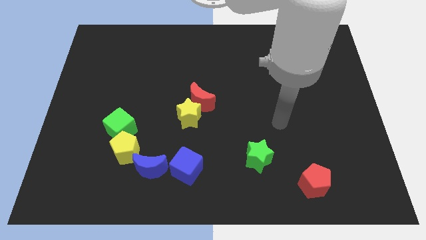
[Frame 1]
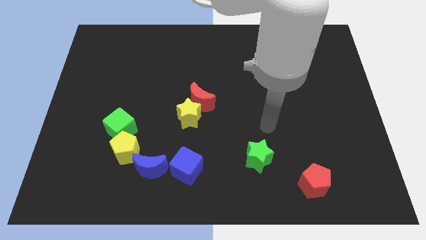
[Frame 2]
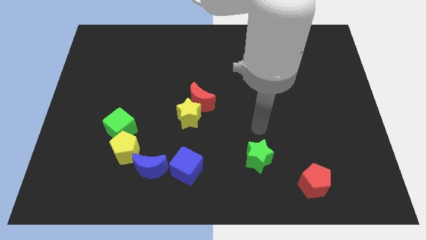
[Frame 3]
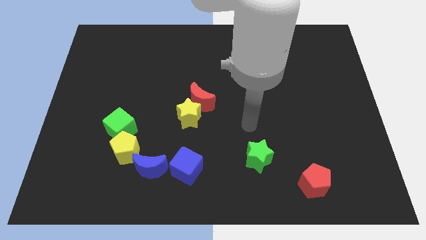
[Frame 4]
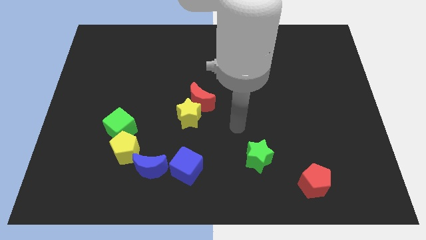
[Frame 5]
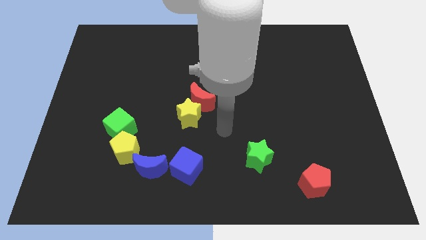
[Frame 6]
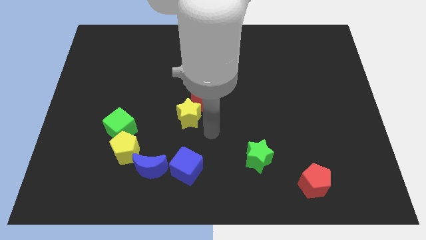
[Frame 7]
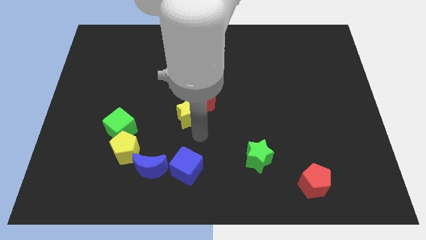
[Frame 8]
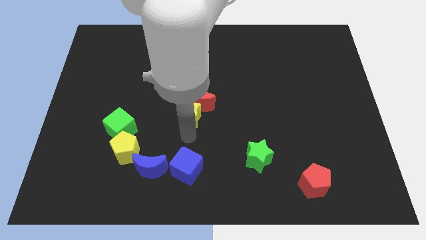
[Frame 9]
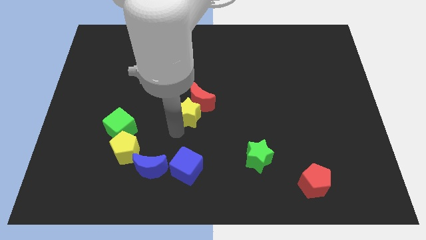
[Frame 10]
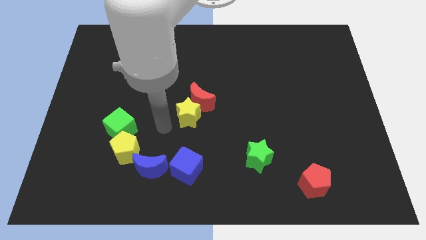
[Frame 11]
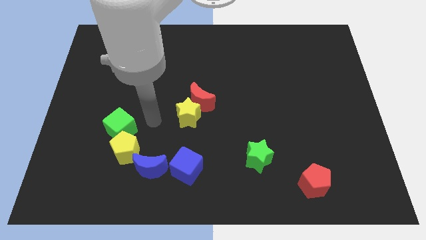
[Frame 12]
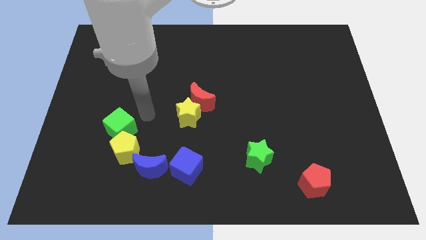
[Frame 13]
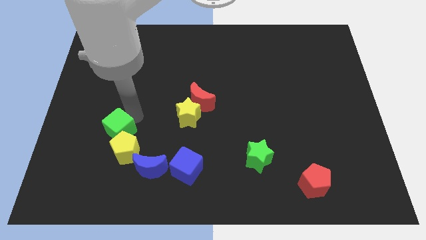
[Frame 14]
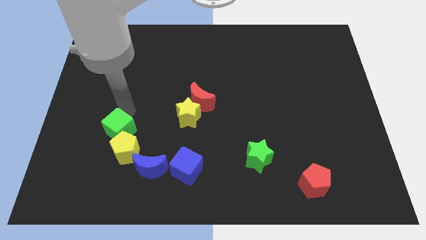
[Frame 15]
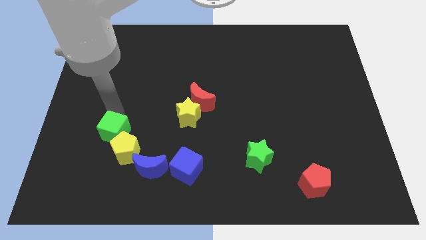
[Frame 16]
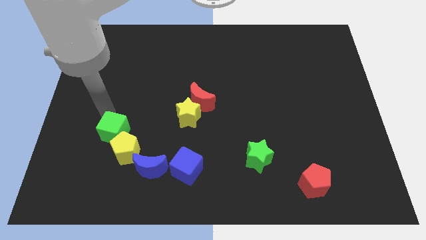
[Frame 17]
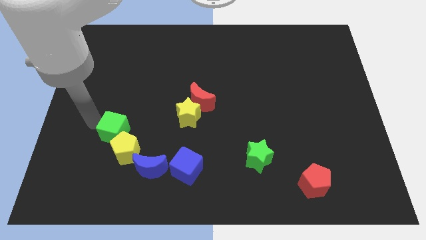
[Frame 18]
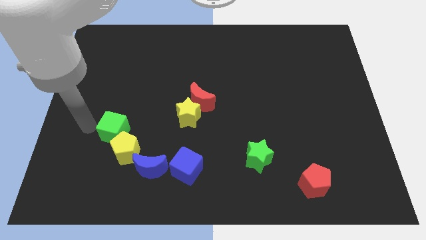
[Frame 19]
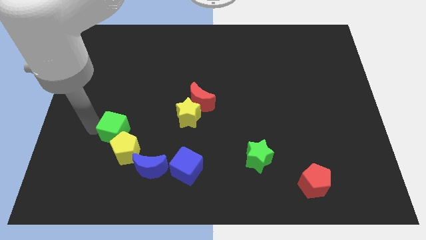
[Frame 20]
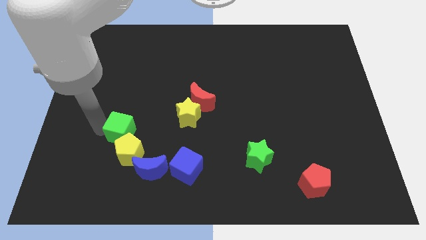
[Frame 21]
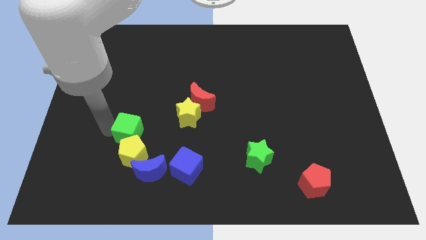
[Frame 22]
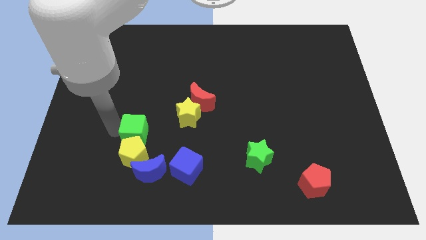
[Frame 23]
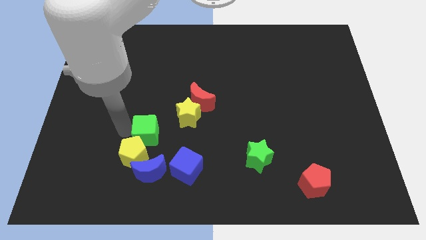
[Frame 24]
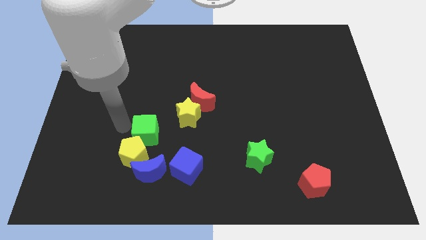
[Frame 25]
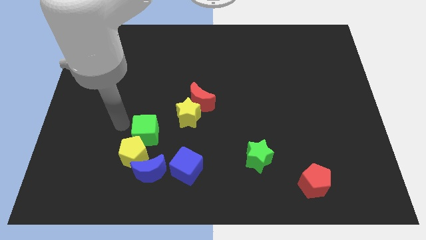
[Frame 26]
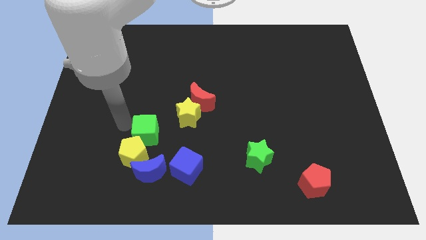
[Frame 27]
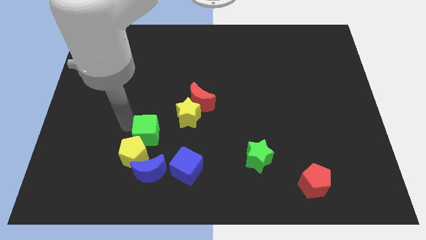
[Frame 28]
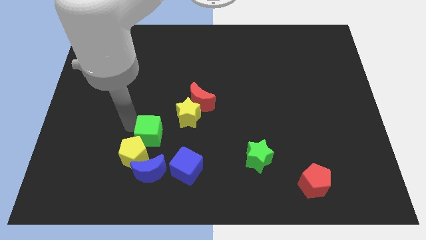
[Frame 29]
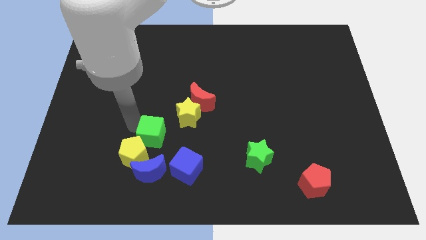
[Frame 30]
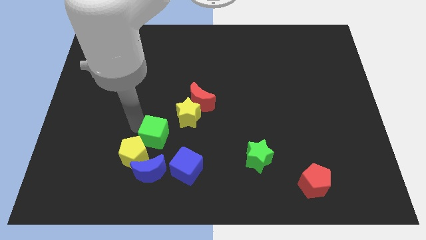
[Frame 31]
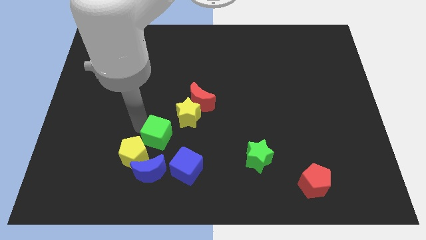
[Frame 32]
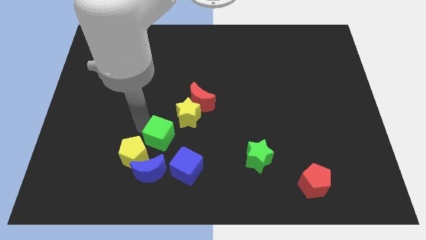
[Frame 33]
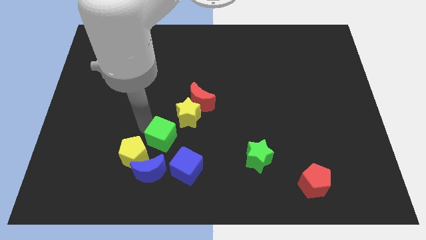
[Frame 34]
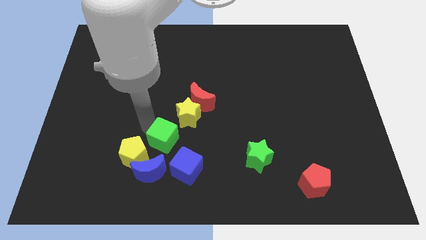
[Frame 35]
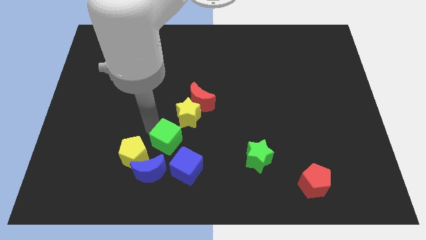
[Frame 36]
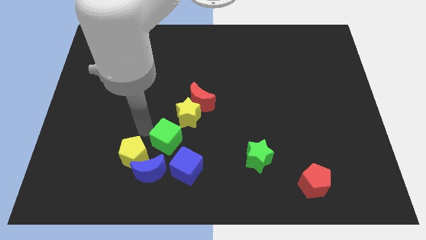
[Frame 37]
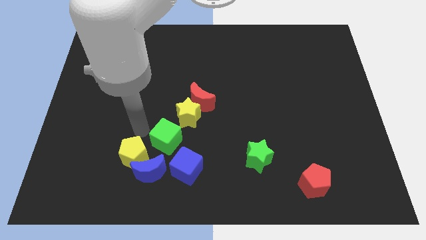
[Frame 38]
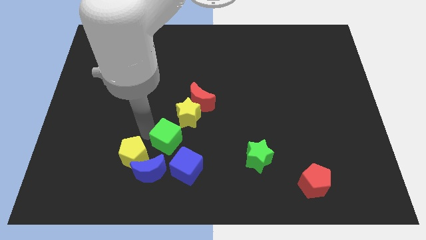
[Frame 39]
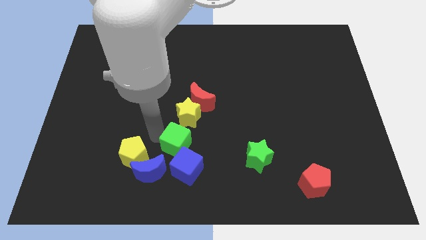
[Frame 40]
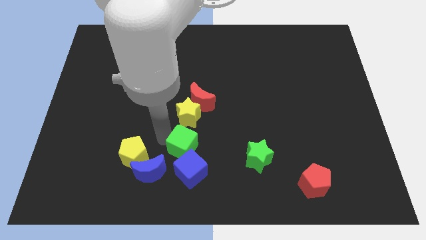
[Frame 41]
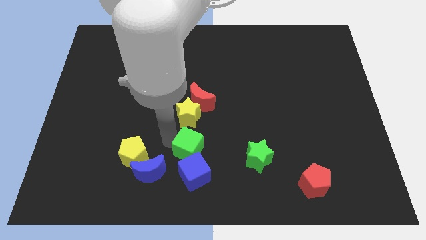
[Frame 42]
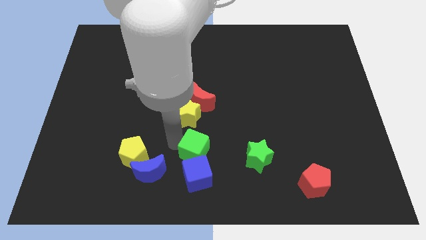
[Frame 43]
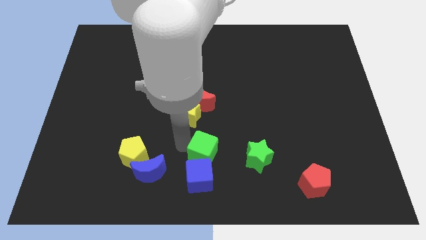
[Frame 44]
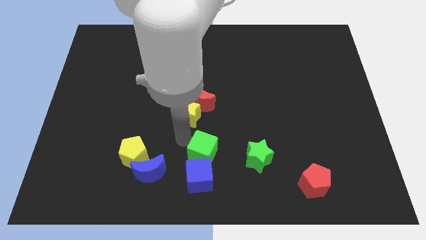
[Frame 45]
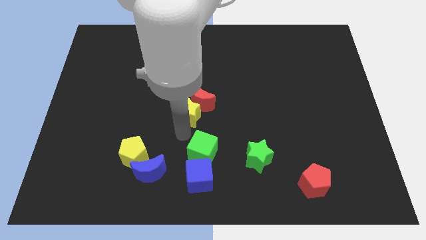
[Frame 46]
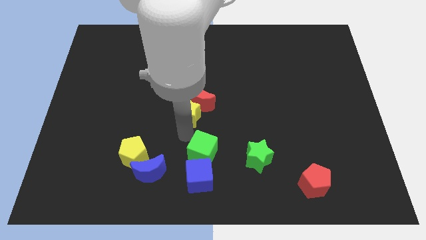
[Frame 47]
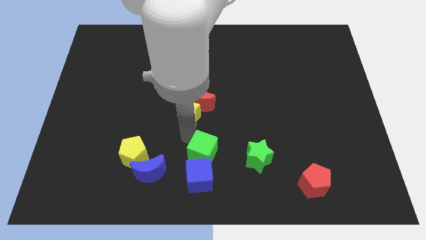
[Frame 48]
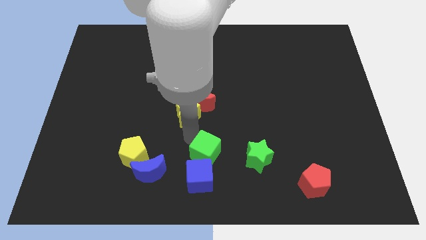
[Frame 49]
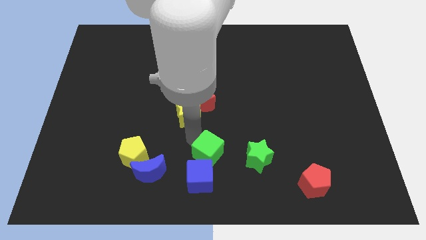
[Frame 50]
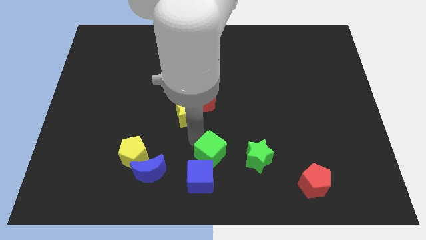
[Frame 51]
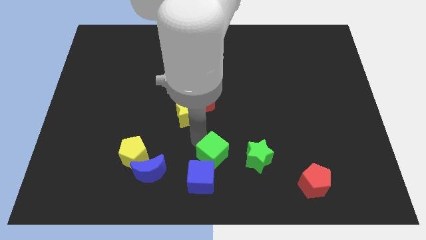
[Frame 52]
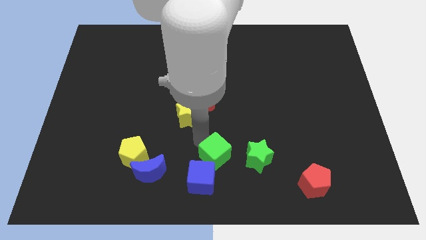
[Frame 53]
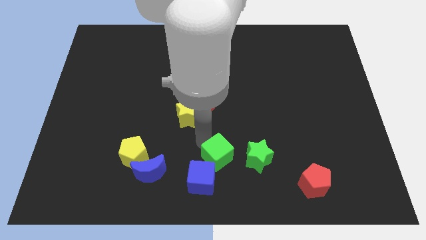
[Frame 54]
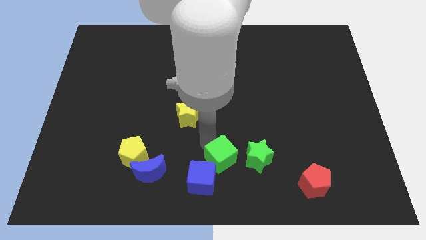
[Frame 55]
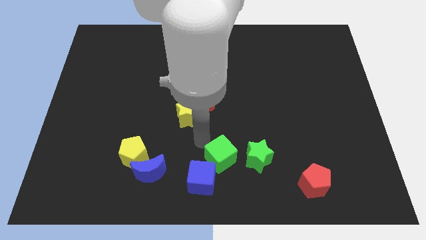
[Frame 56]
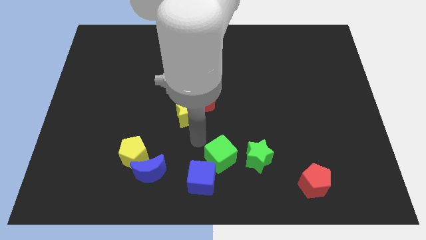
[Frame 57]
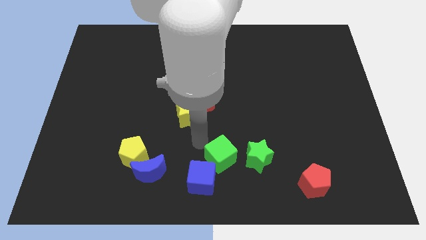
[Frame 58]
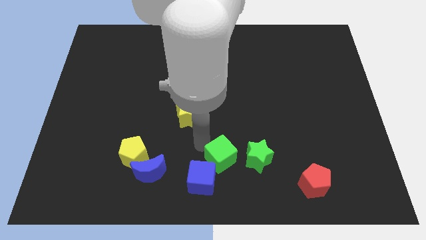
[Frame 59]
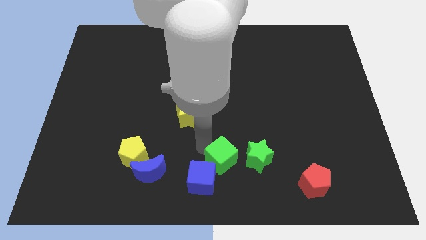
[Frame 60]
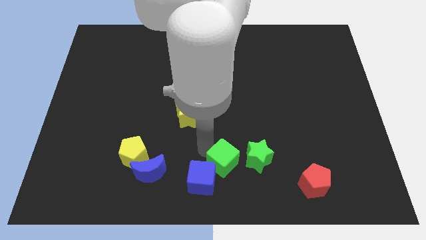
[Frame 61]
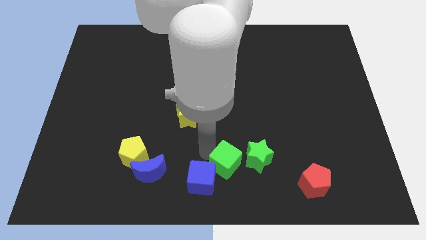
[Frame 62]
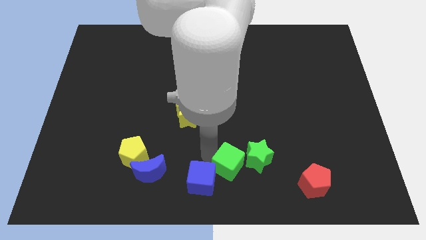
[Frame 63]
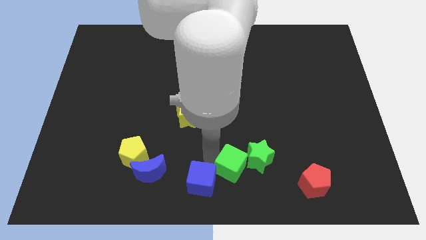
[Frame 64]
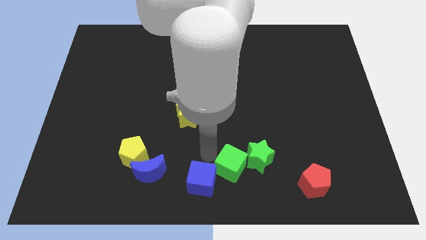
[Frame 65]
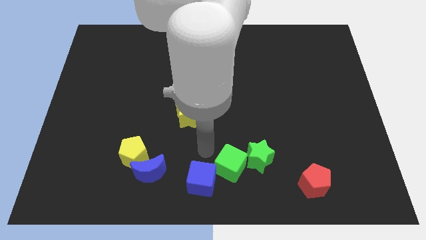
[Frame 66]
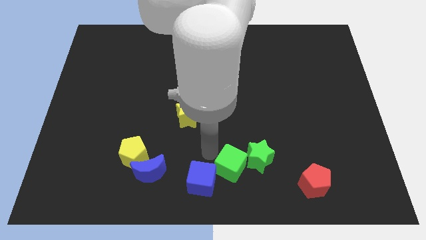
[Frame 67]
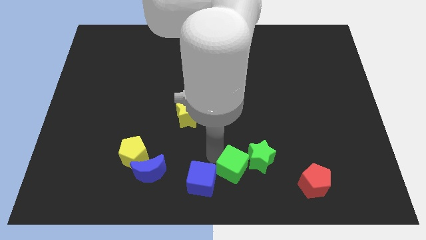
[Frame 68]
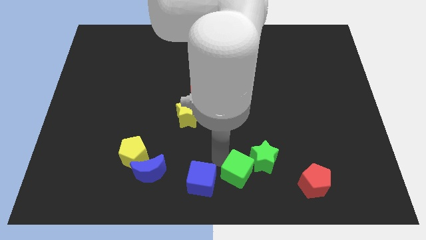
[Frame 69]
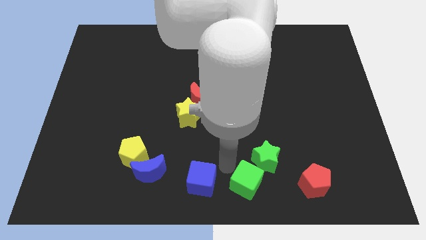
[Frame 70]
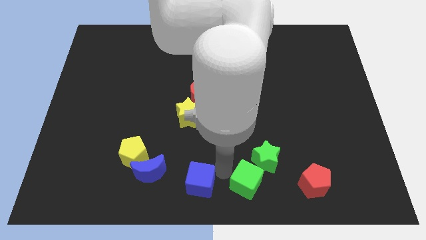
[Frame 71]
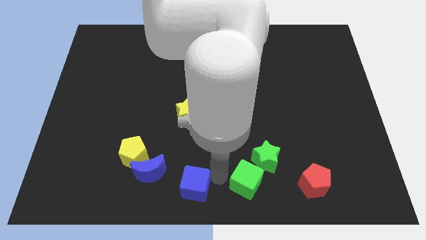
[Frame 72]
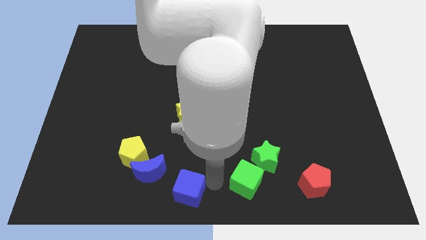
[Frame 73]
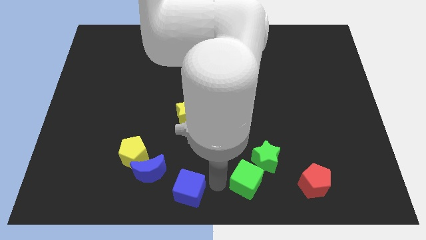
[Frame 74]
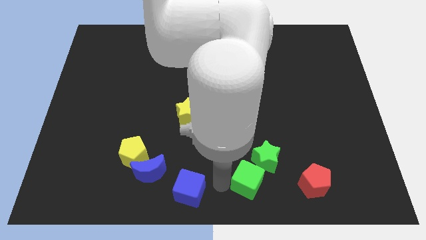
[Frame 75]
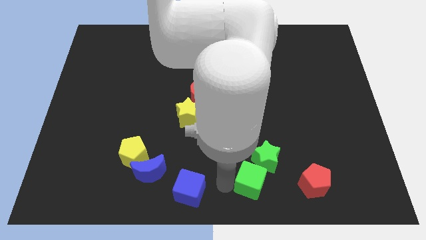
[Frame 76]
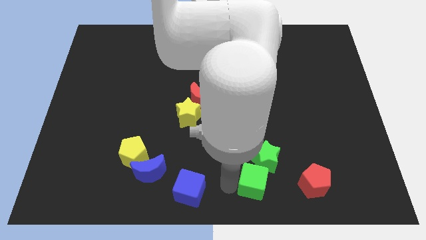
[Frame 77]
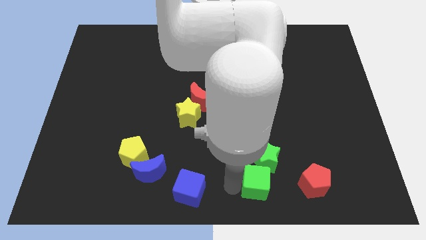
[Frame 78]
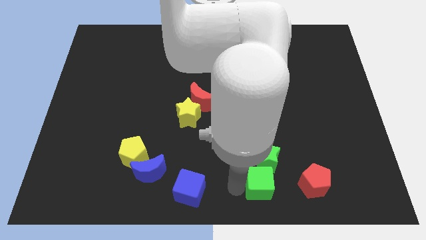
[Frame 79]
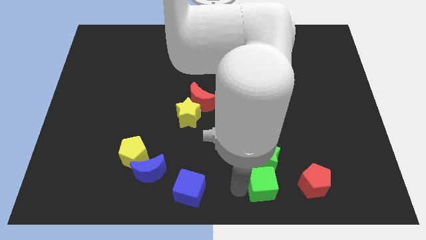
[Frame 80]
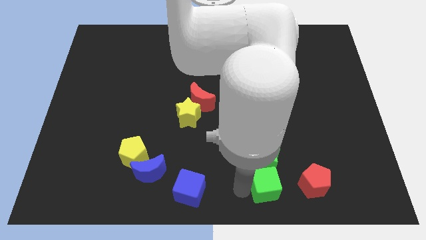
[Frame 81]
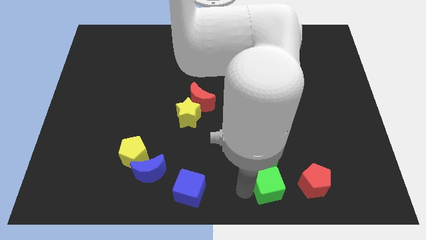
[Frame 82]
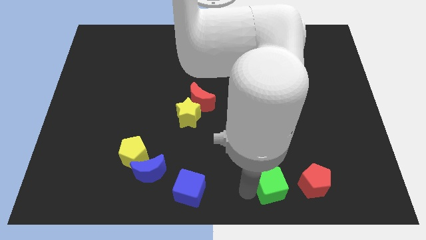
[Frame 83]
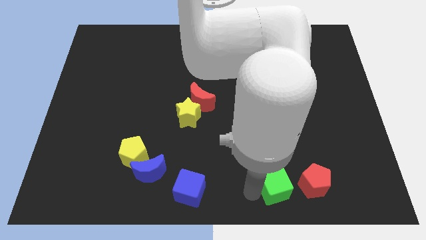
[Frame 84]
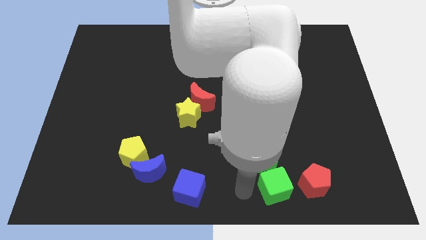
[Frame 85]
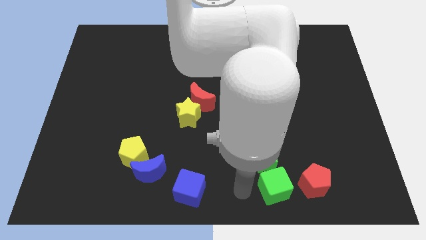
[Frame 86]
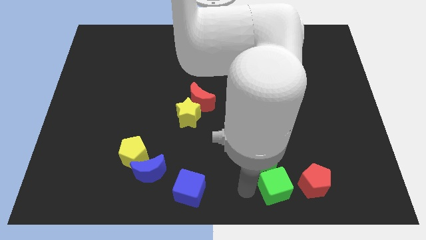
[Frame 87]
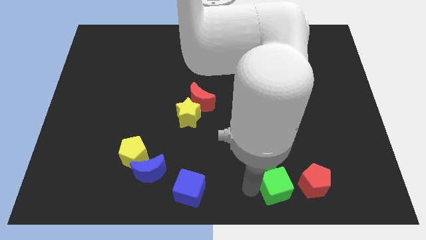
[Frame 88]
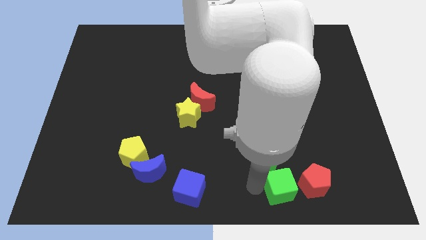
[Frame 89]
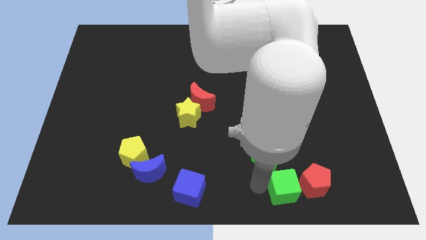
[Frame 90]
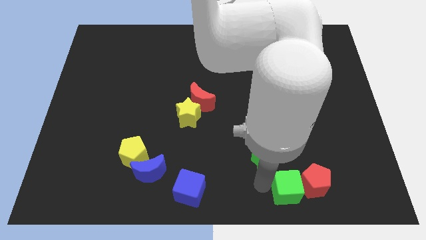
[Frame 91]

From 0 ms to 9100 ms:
slide the green cube next to the red pentagon
